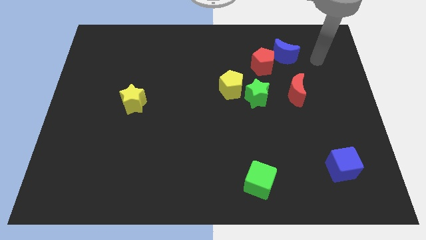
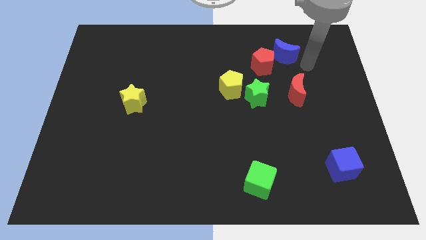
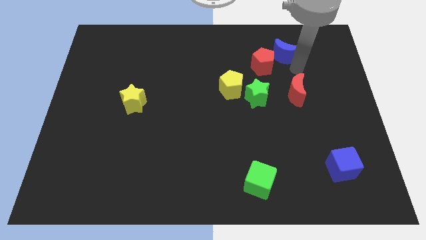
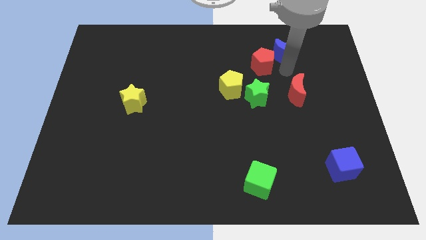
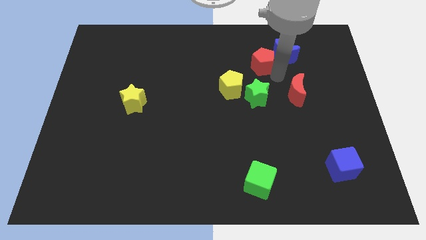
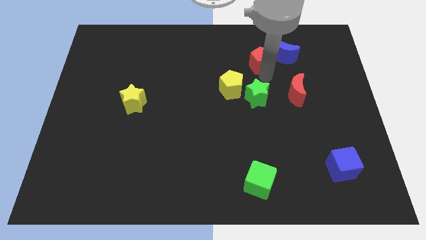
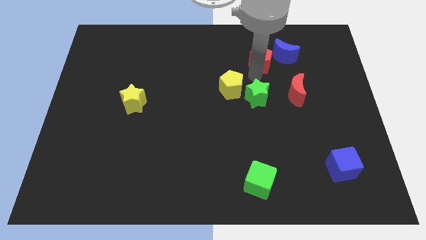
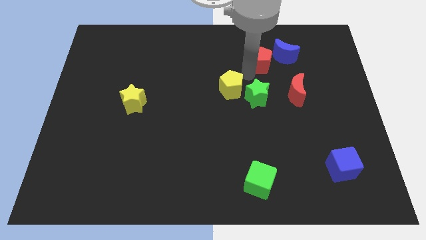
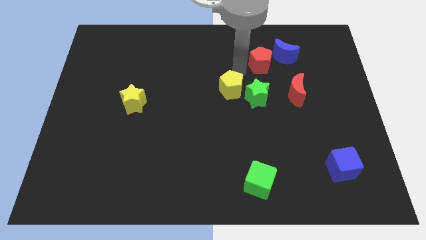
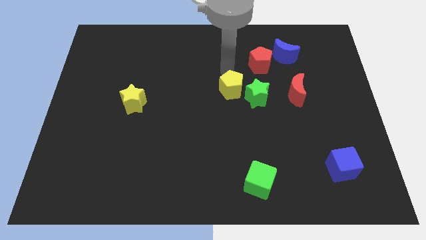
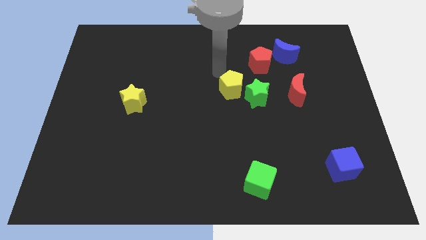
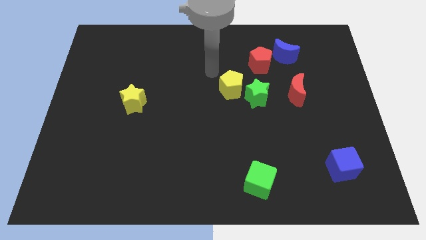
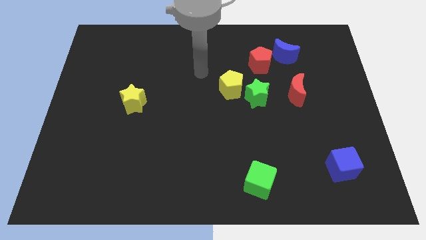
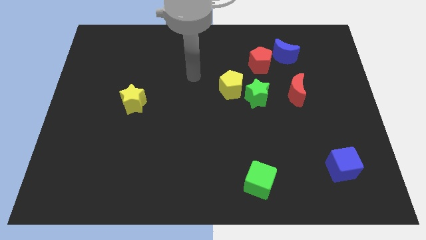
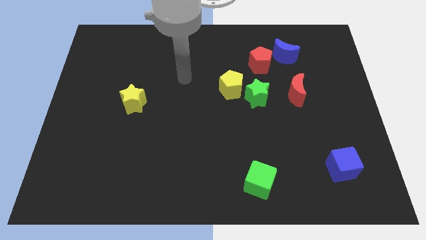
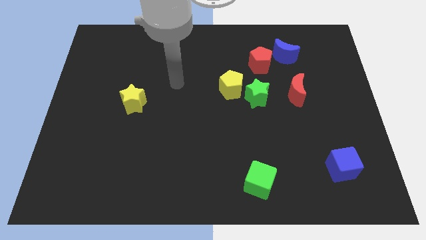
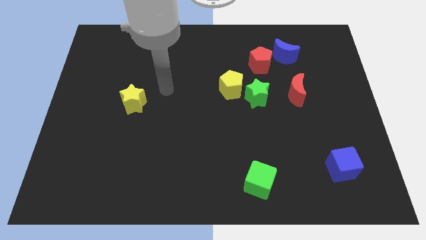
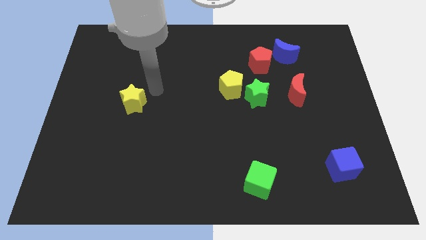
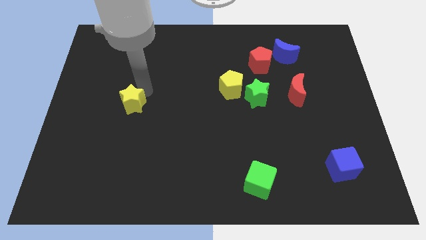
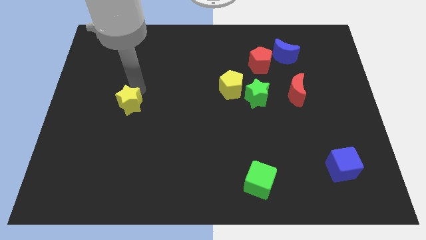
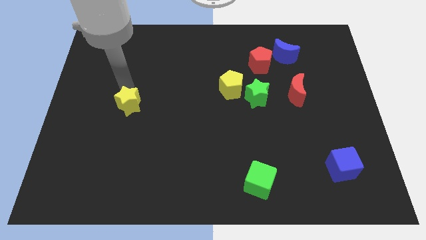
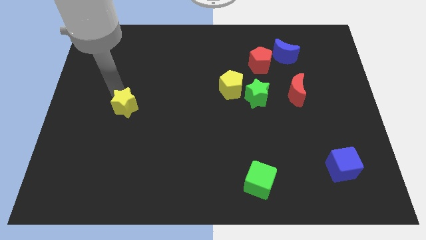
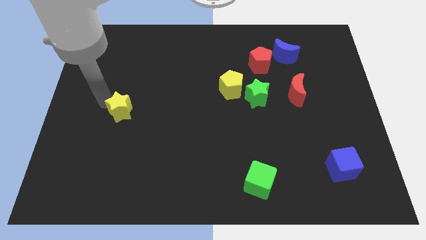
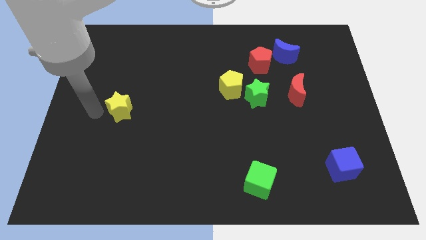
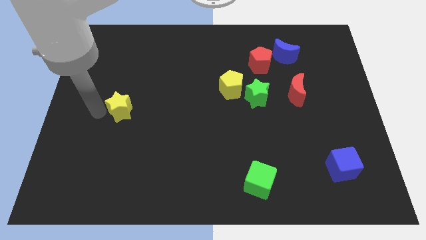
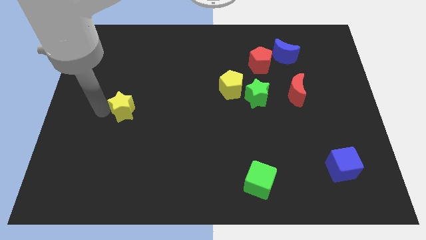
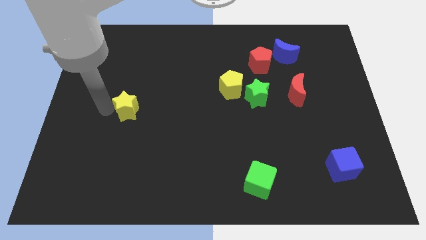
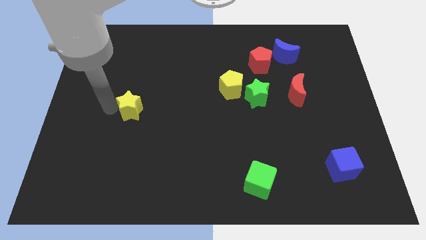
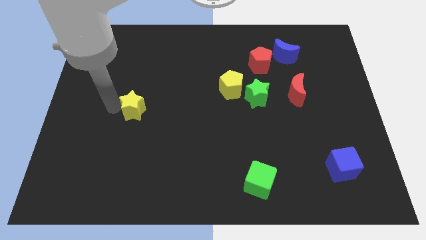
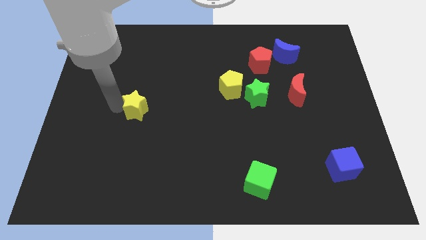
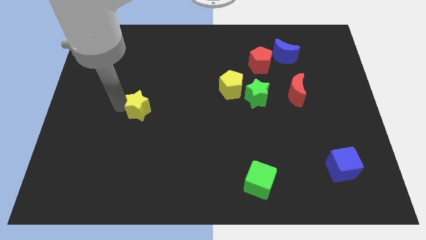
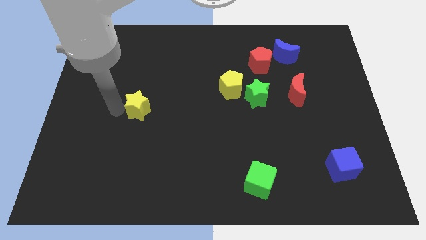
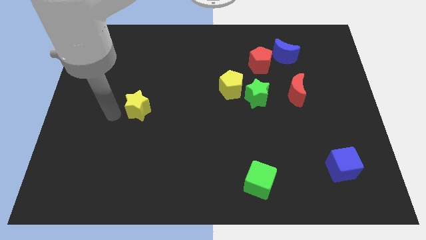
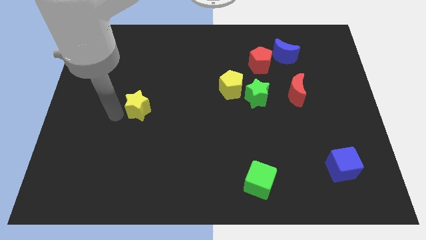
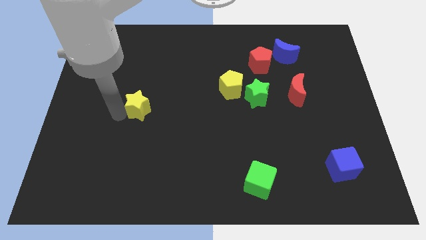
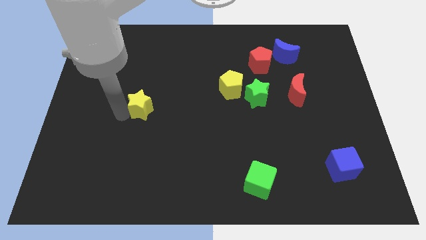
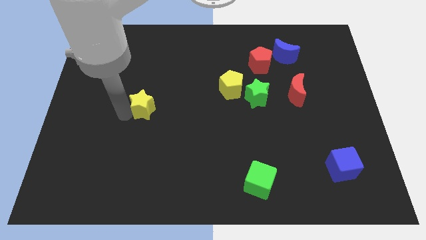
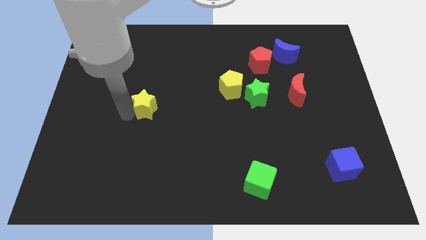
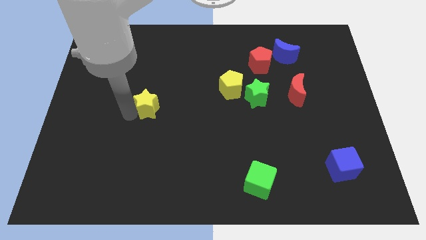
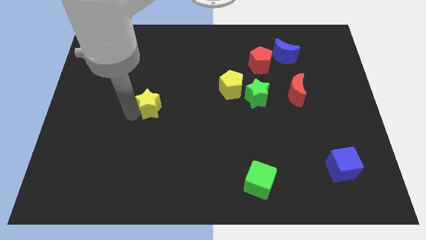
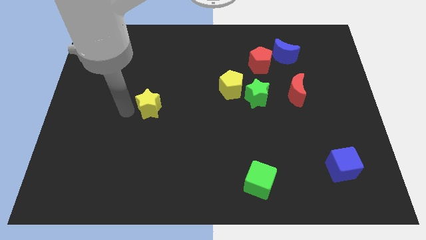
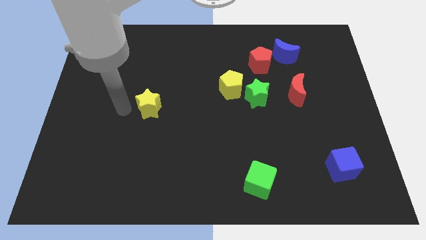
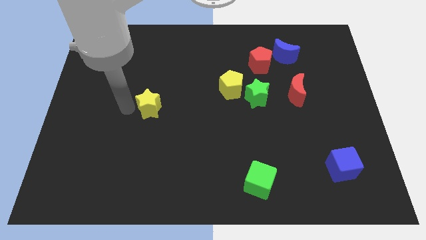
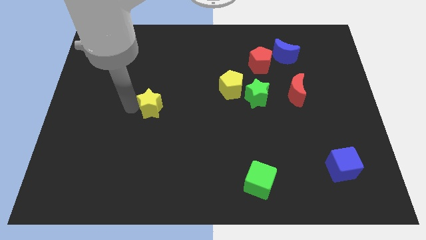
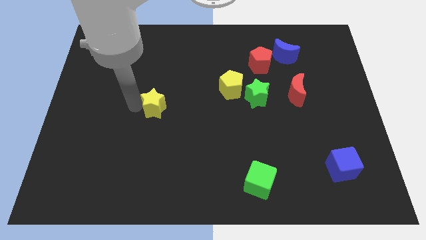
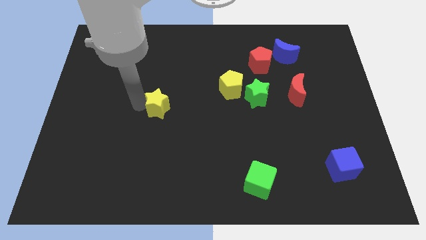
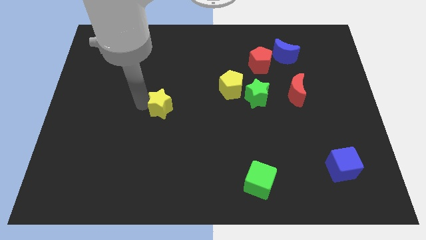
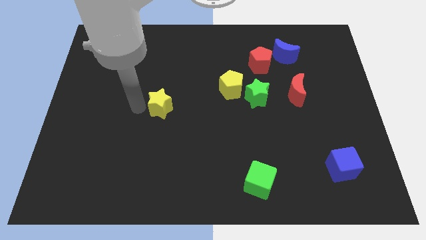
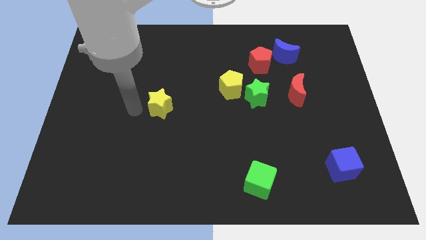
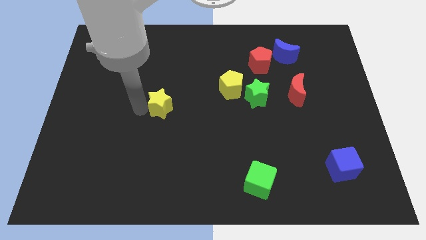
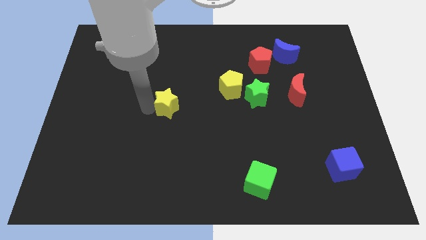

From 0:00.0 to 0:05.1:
slightly move the yellow star right

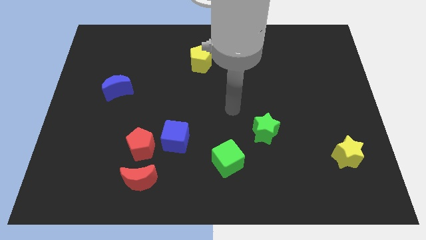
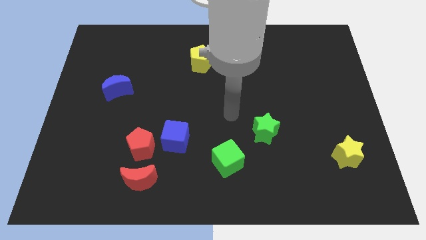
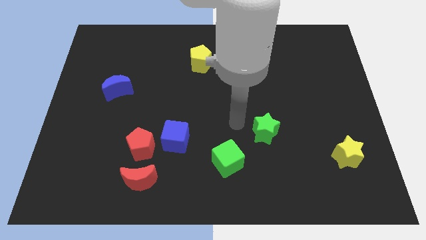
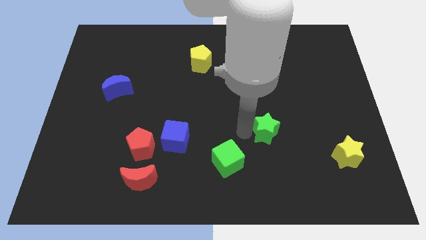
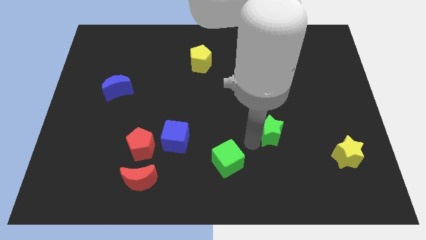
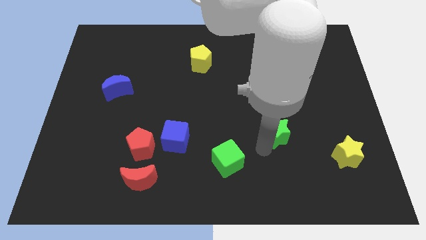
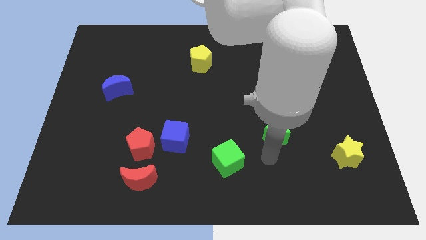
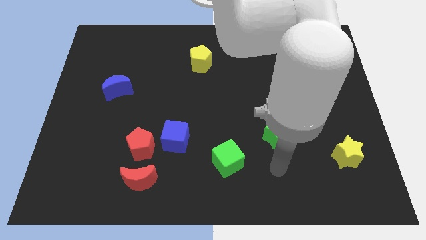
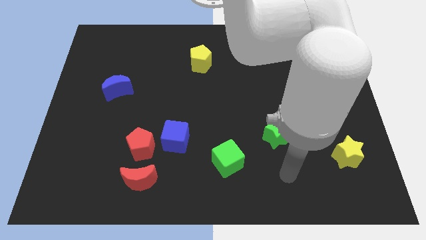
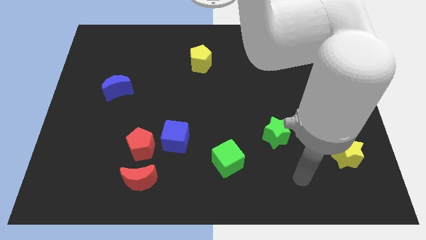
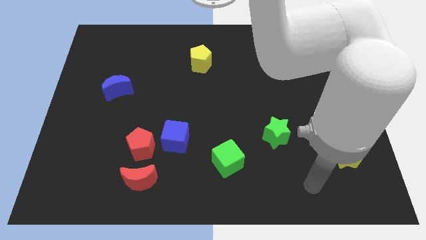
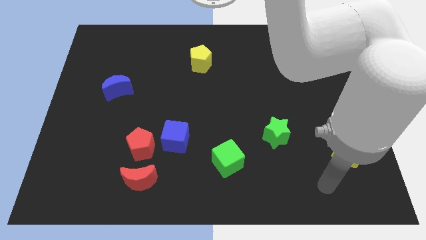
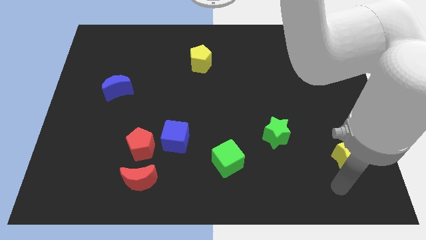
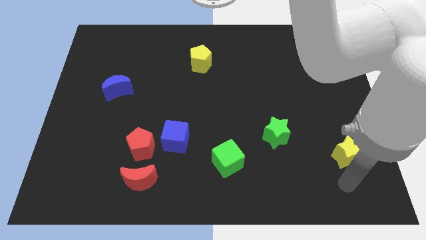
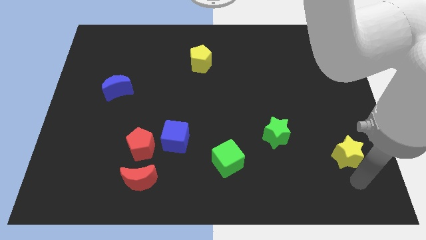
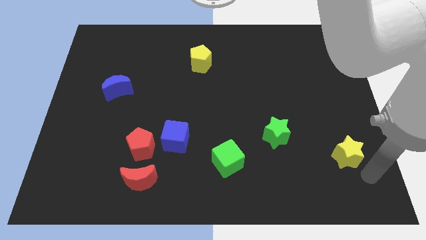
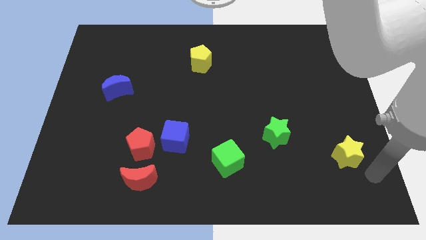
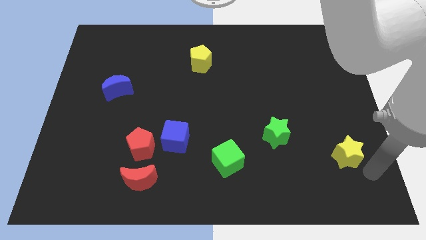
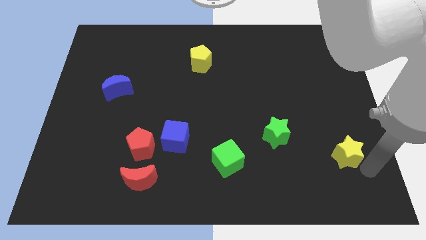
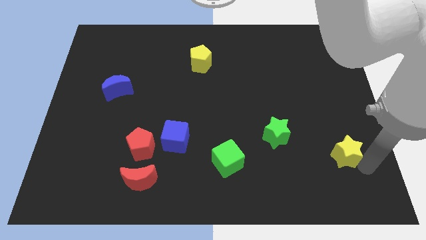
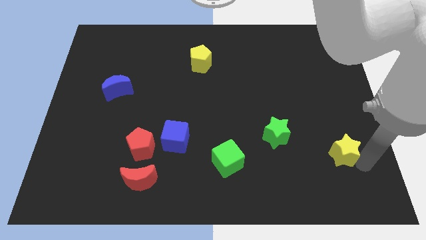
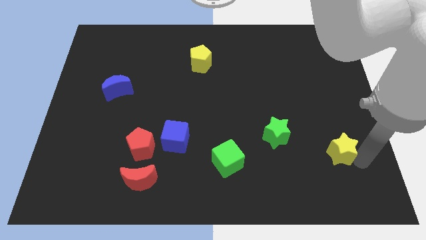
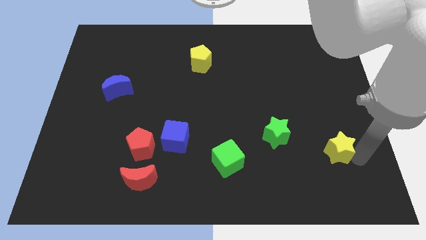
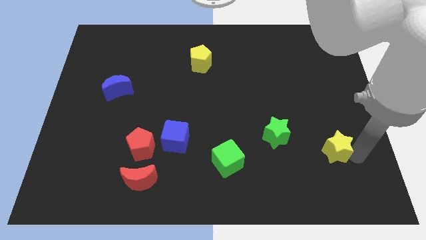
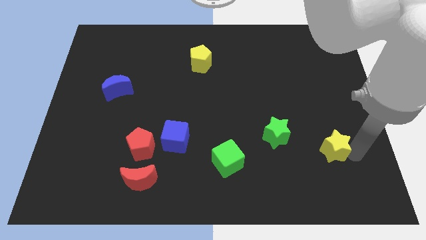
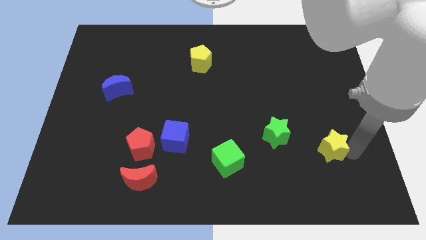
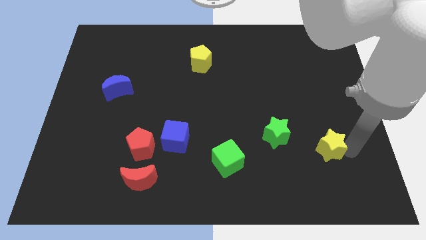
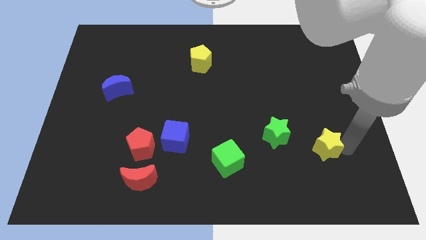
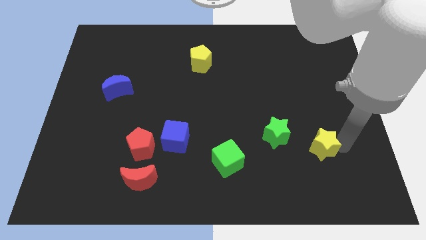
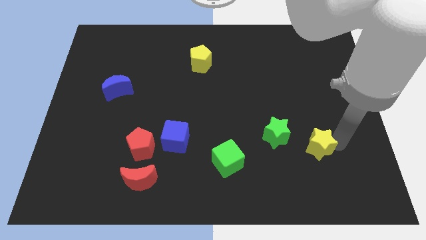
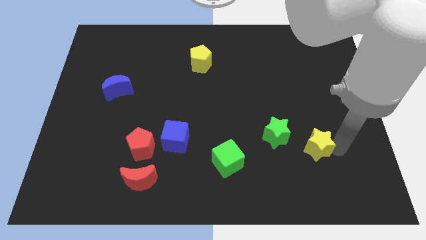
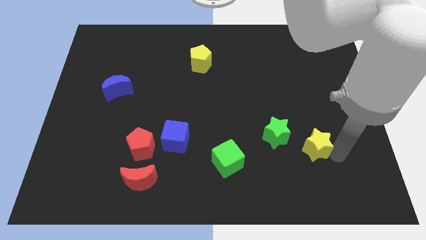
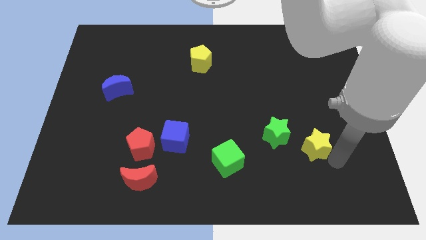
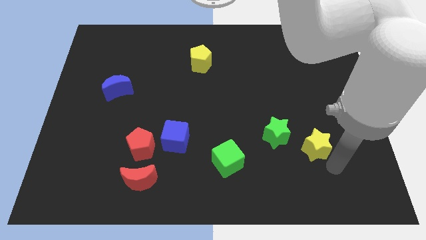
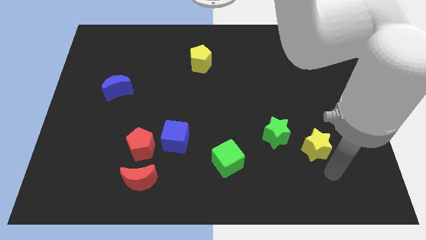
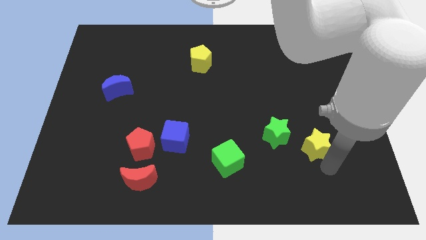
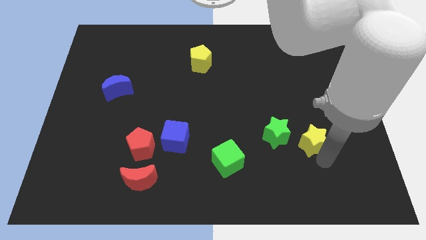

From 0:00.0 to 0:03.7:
slide the yellow star a little up and to the left diagonally
